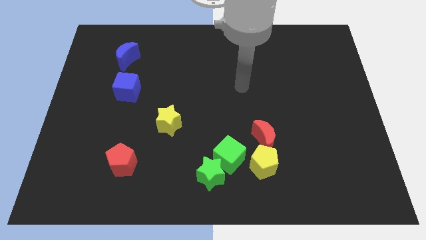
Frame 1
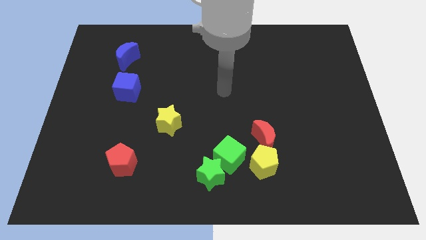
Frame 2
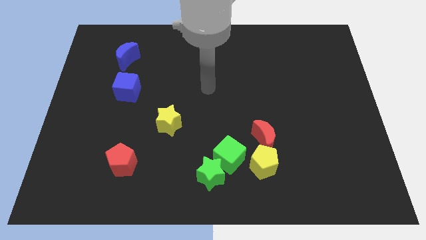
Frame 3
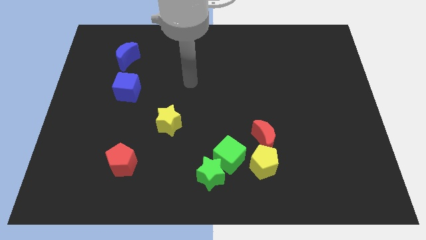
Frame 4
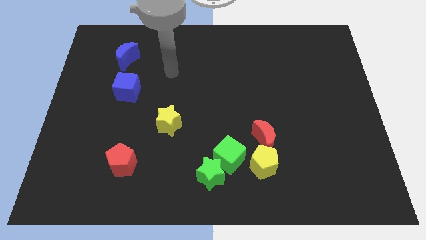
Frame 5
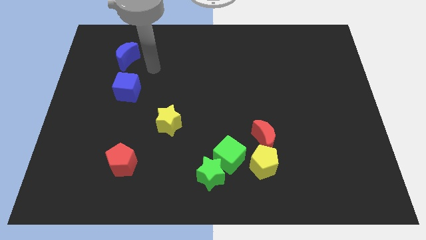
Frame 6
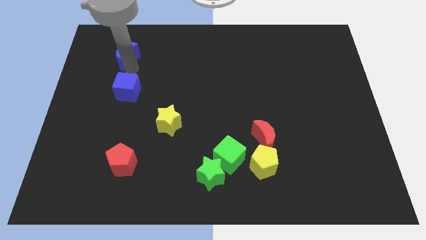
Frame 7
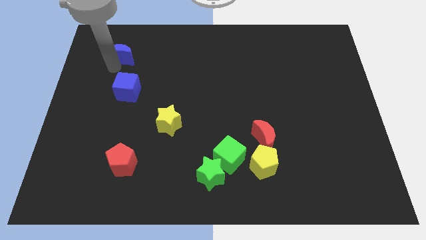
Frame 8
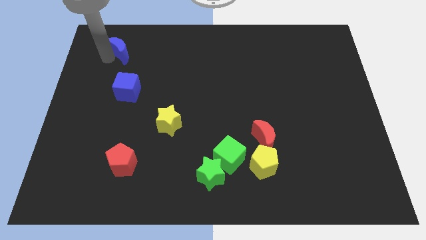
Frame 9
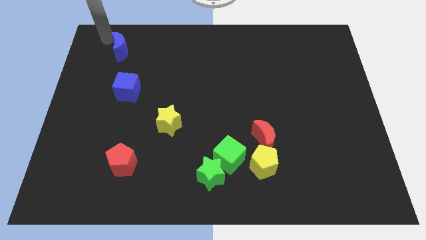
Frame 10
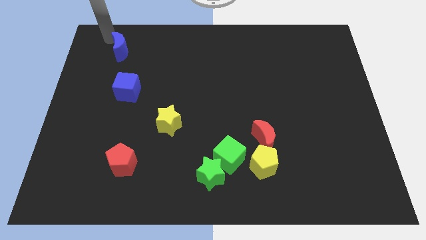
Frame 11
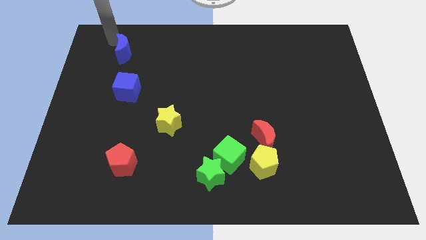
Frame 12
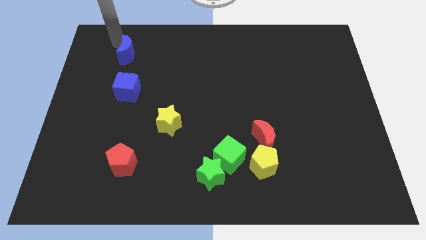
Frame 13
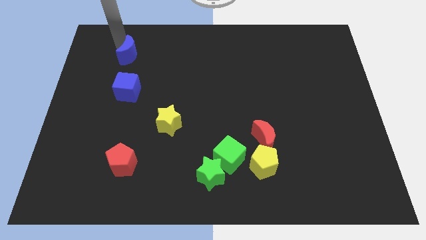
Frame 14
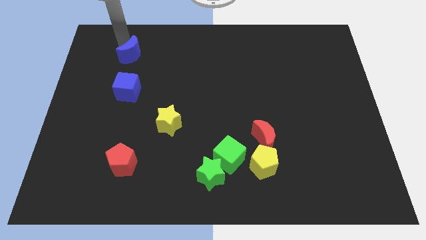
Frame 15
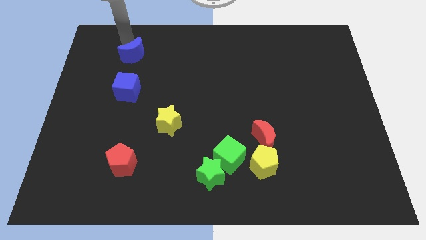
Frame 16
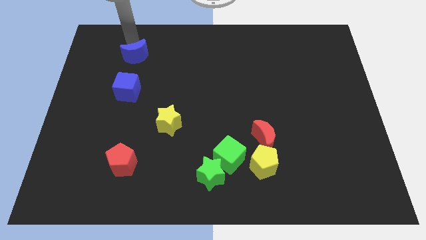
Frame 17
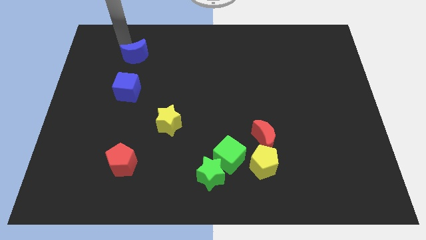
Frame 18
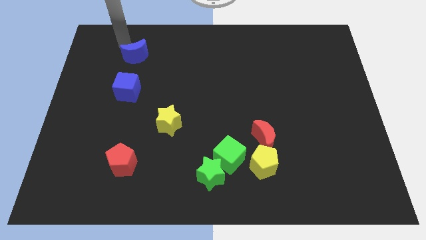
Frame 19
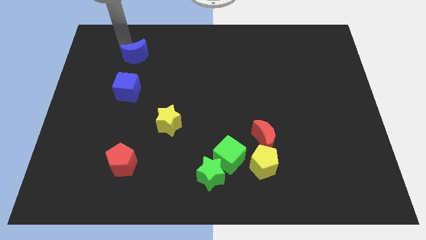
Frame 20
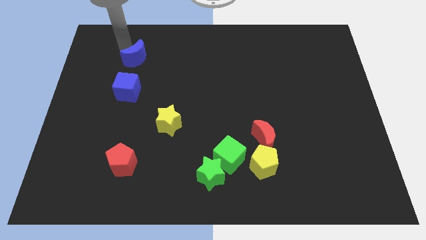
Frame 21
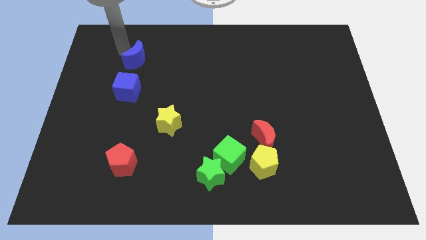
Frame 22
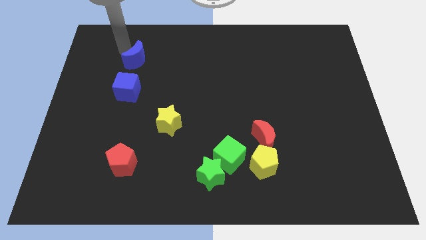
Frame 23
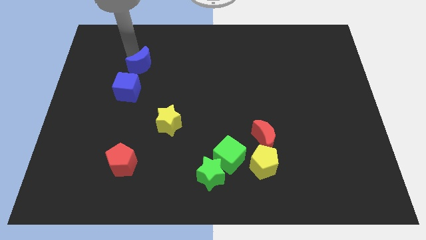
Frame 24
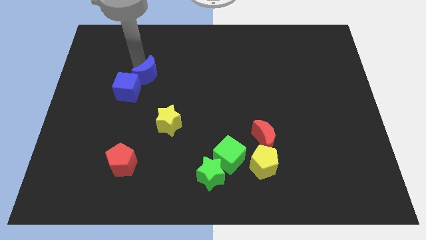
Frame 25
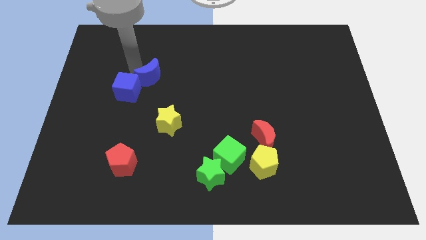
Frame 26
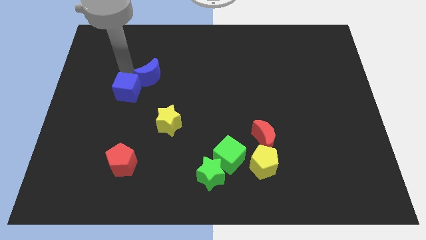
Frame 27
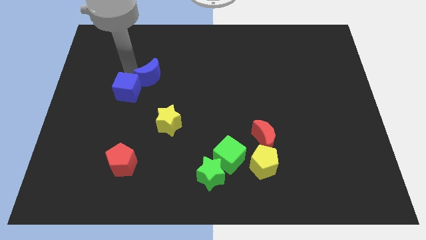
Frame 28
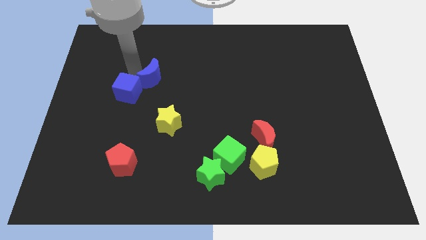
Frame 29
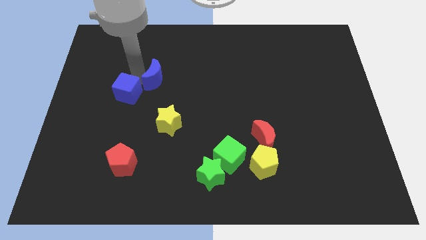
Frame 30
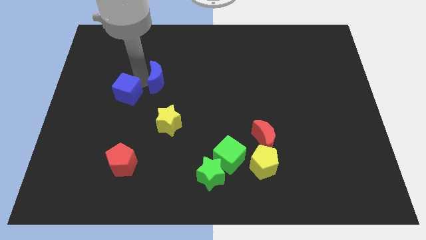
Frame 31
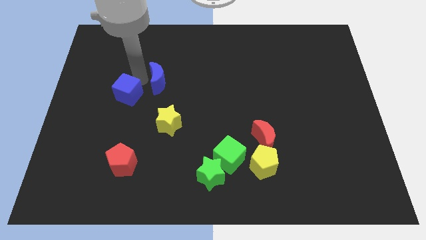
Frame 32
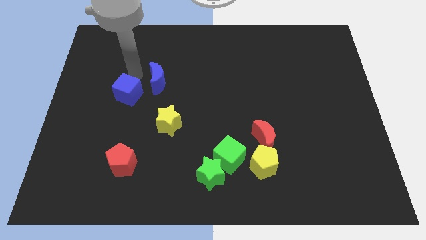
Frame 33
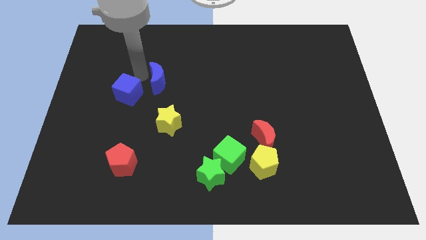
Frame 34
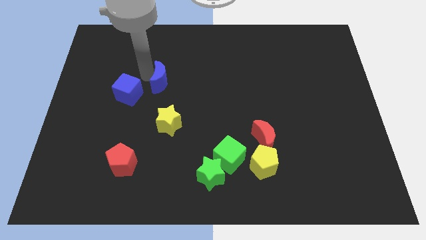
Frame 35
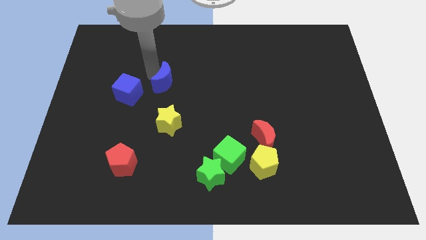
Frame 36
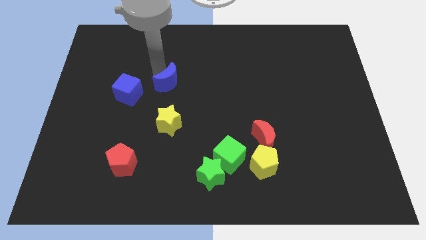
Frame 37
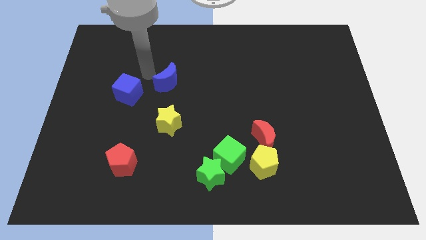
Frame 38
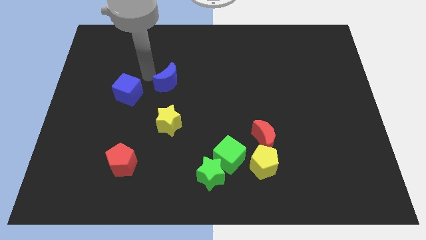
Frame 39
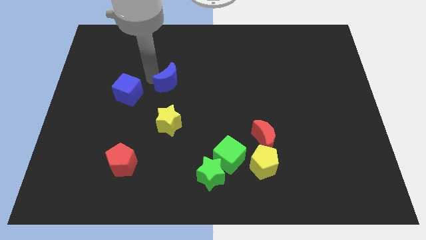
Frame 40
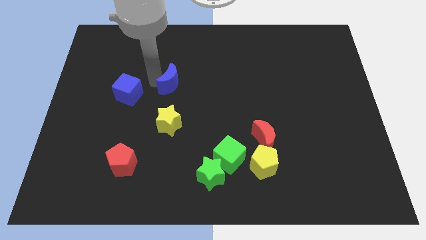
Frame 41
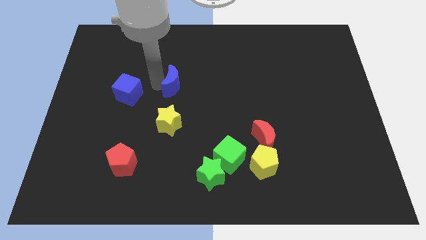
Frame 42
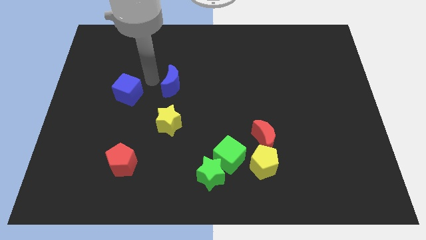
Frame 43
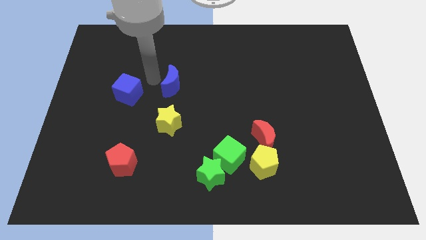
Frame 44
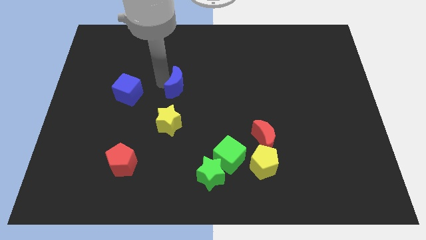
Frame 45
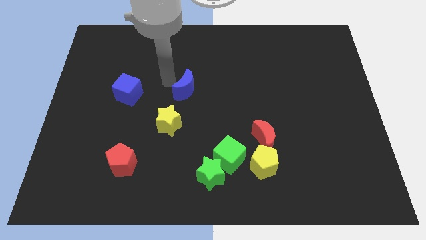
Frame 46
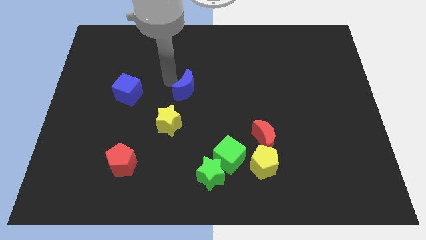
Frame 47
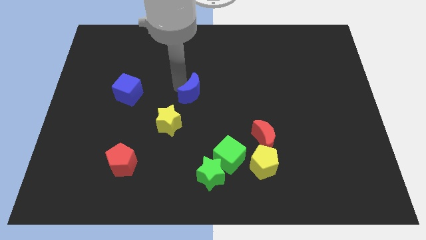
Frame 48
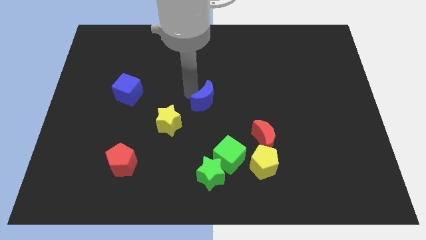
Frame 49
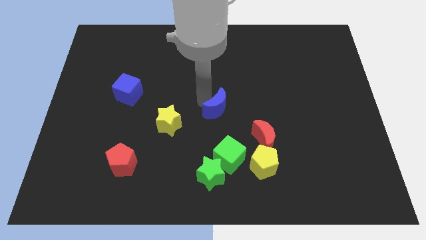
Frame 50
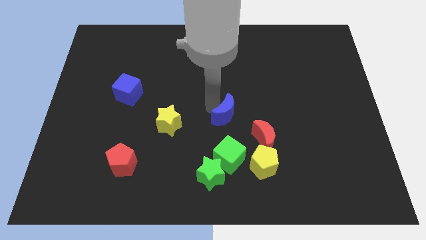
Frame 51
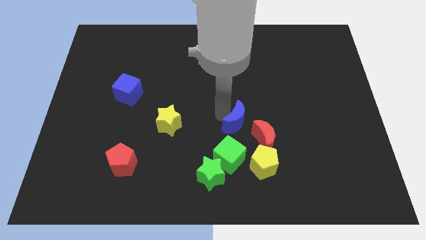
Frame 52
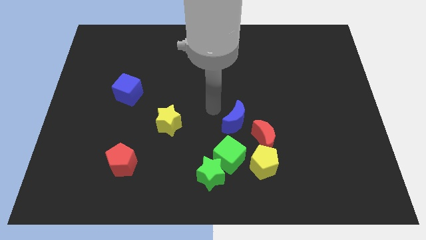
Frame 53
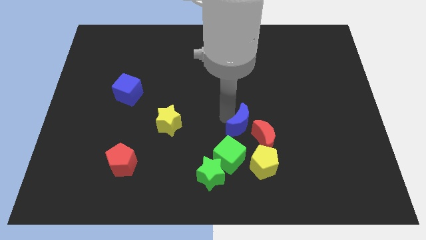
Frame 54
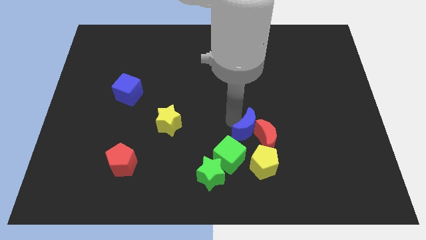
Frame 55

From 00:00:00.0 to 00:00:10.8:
slide the blue moon to the red moon

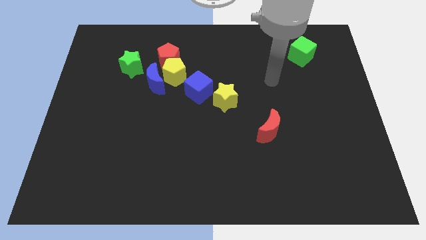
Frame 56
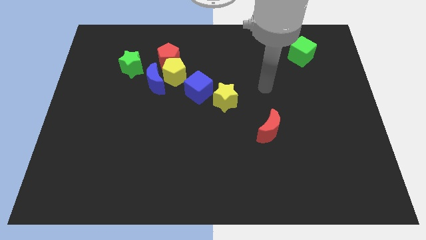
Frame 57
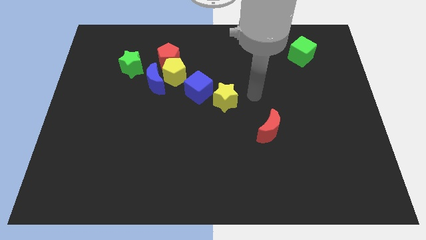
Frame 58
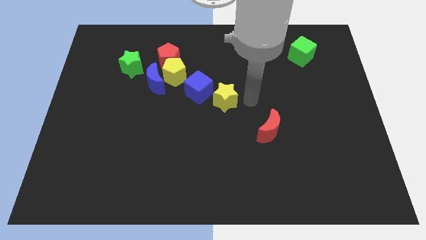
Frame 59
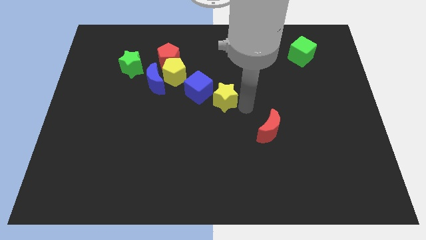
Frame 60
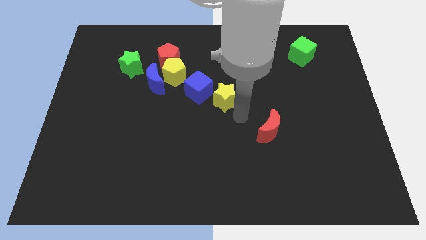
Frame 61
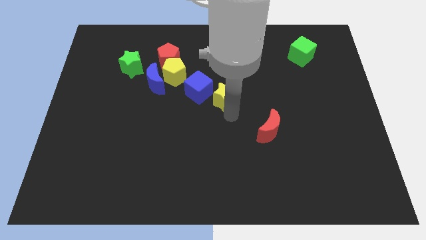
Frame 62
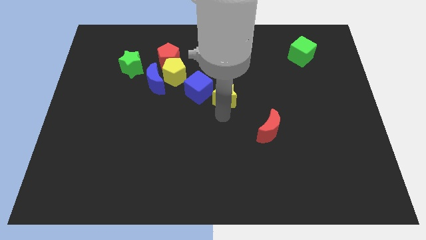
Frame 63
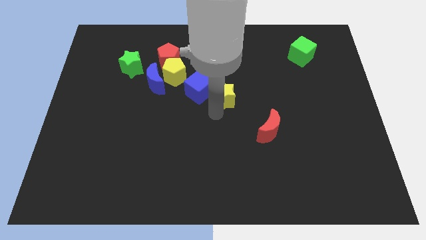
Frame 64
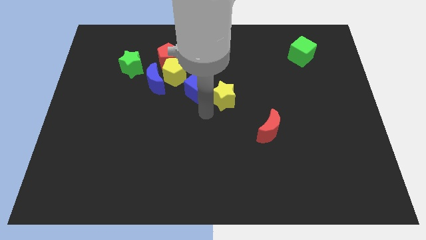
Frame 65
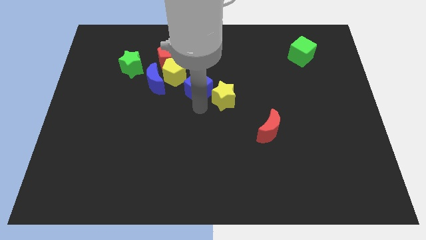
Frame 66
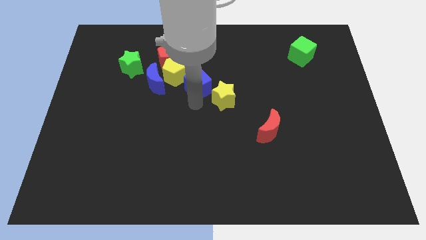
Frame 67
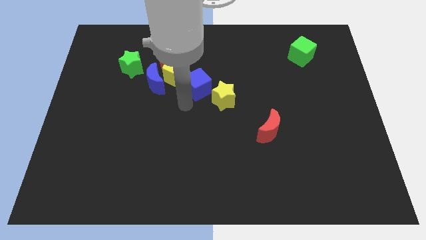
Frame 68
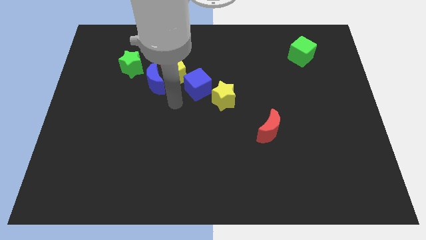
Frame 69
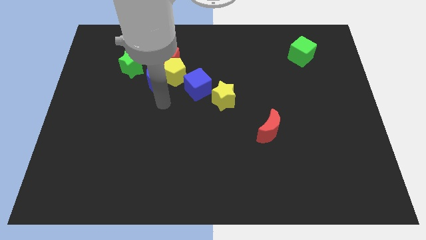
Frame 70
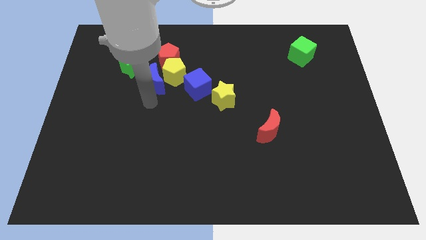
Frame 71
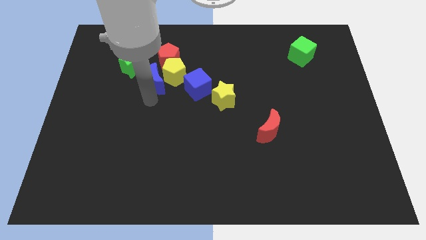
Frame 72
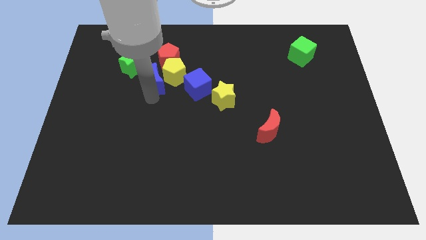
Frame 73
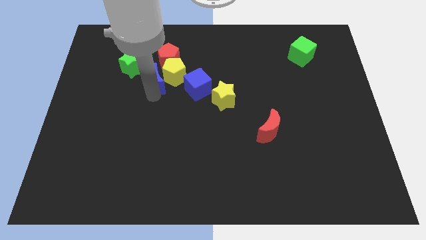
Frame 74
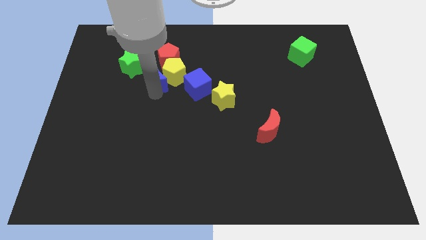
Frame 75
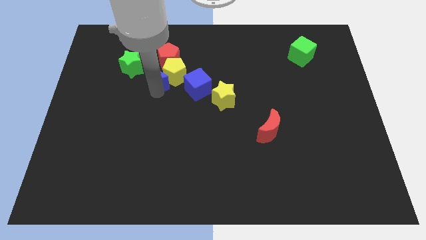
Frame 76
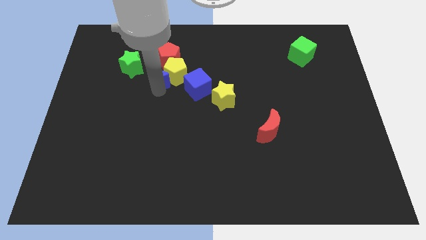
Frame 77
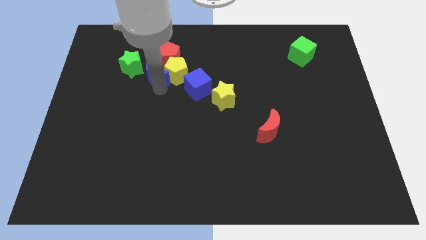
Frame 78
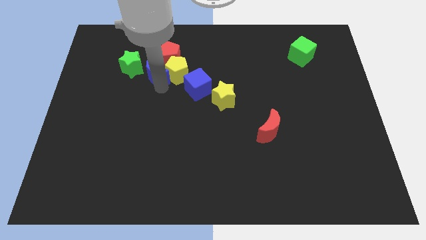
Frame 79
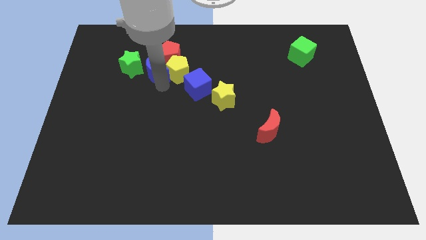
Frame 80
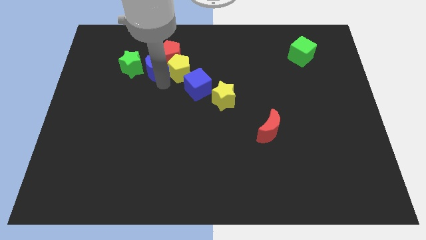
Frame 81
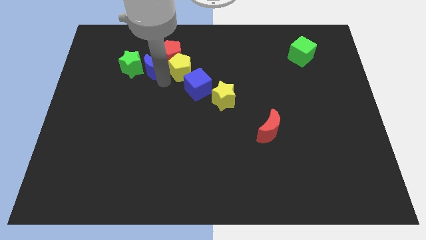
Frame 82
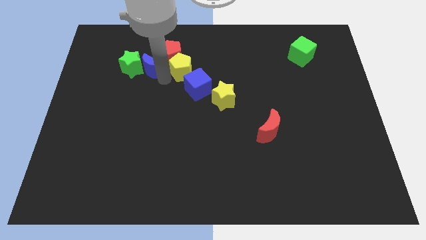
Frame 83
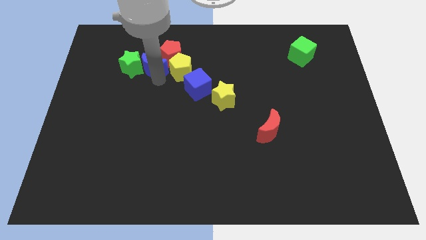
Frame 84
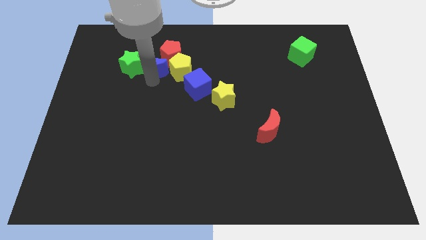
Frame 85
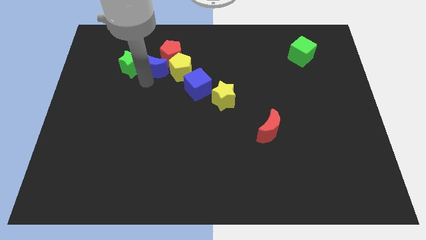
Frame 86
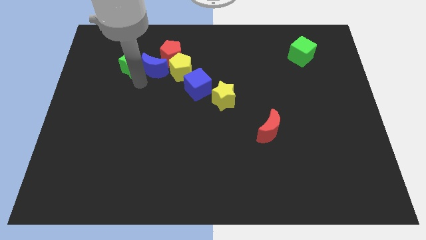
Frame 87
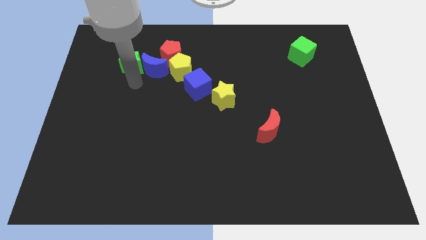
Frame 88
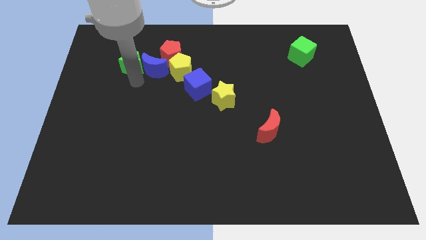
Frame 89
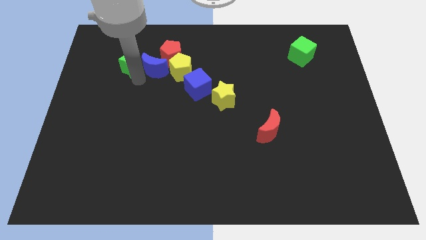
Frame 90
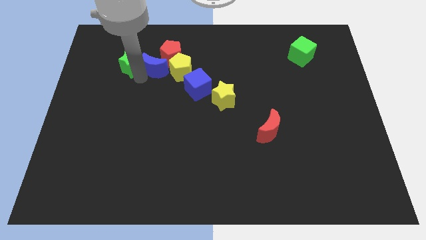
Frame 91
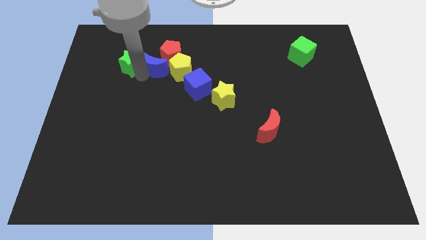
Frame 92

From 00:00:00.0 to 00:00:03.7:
put the blue moon close to the red pentagon
